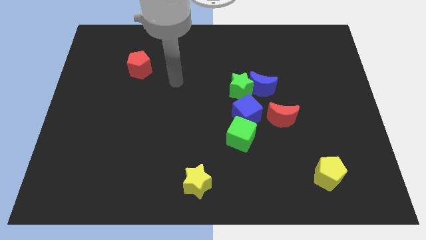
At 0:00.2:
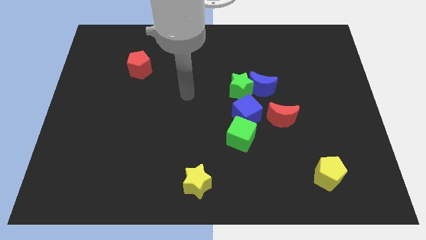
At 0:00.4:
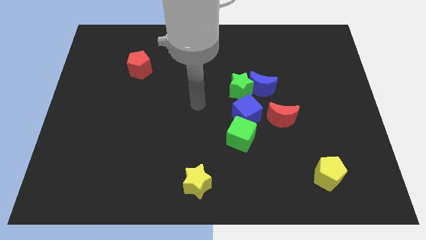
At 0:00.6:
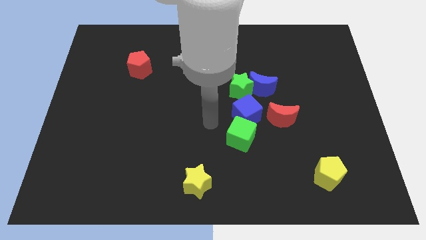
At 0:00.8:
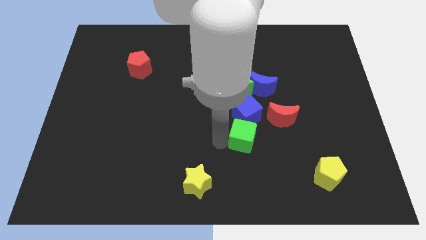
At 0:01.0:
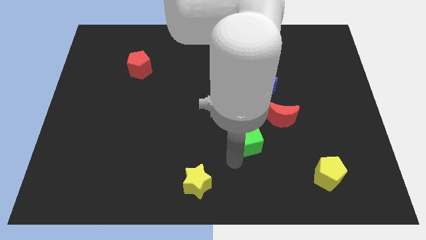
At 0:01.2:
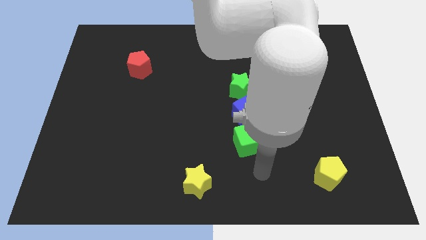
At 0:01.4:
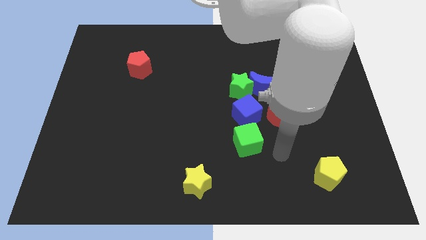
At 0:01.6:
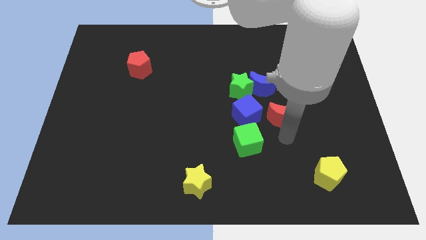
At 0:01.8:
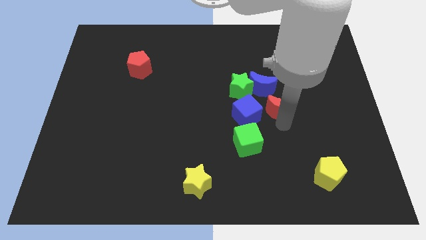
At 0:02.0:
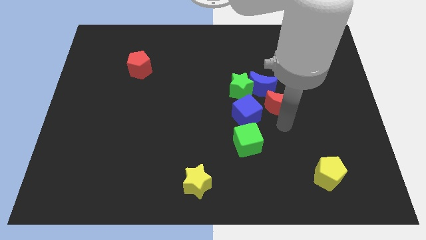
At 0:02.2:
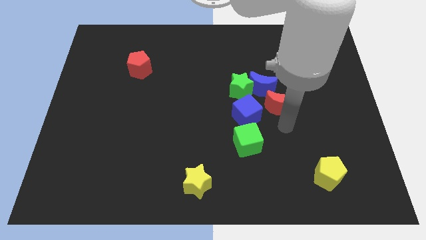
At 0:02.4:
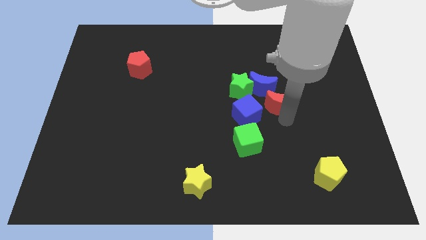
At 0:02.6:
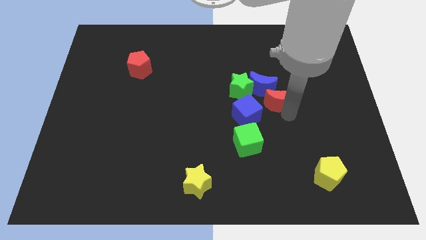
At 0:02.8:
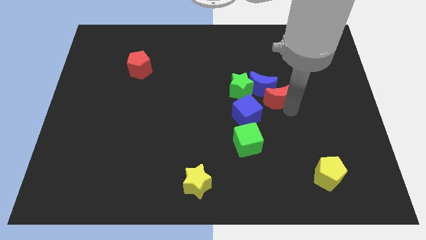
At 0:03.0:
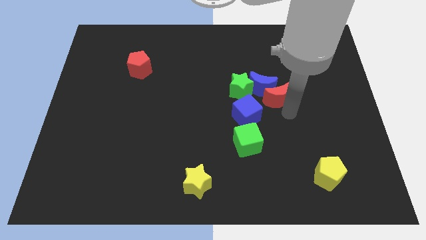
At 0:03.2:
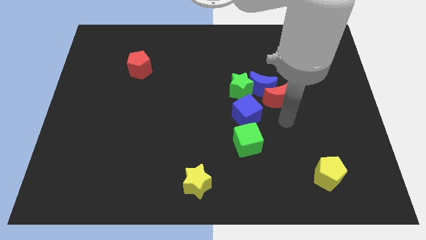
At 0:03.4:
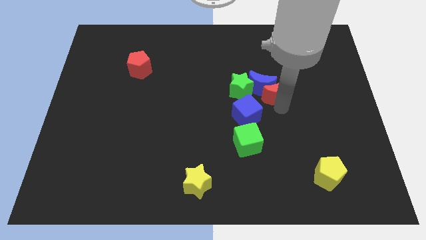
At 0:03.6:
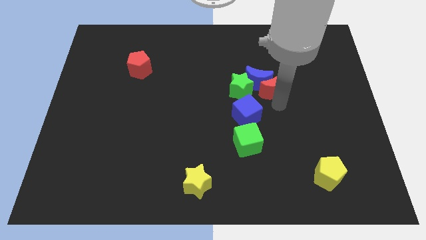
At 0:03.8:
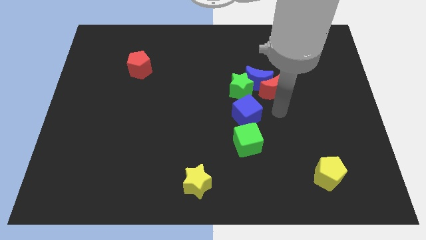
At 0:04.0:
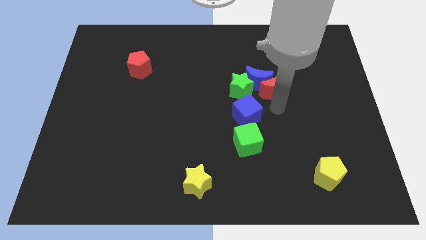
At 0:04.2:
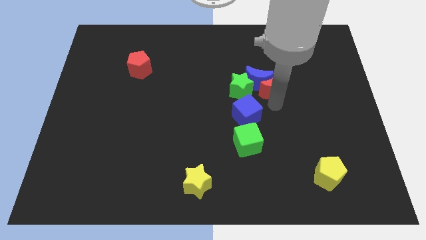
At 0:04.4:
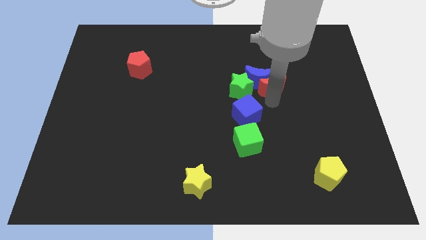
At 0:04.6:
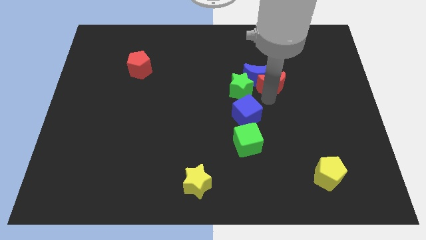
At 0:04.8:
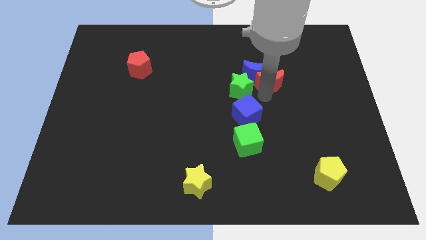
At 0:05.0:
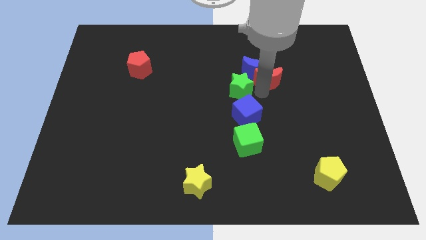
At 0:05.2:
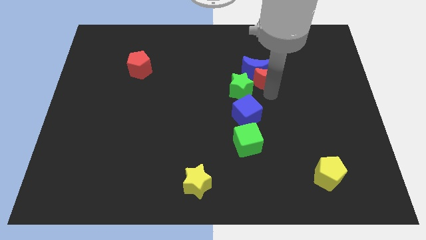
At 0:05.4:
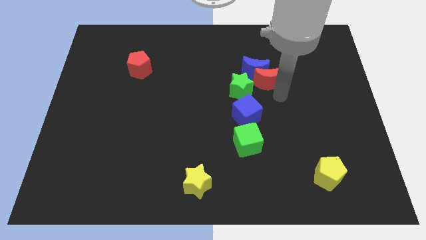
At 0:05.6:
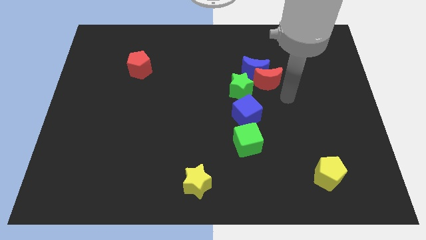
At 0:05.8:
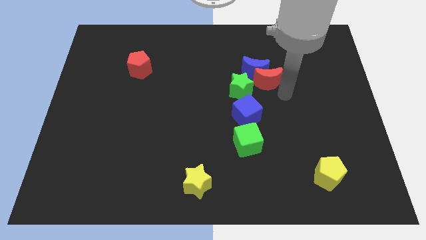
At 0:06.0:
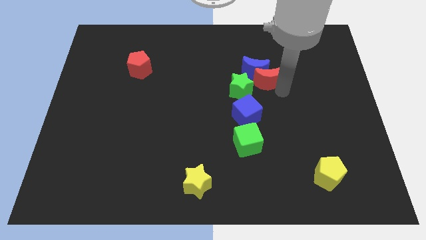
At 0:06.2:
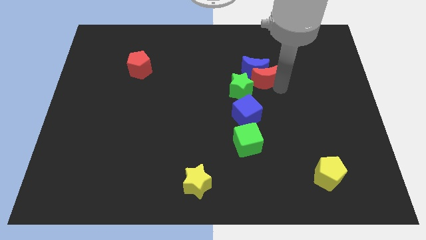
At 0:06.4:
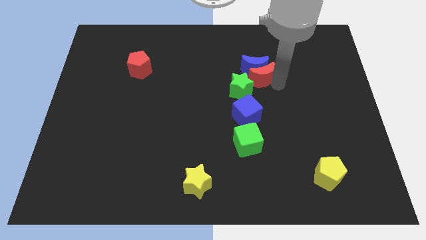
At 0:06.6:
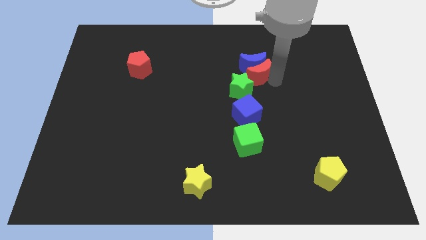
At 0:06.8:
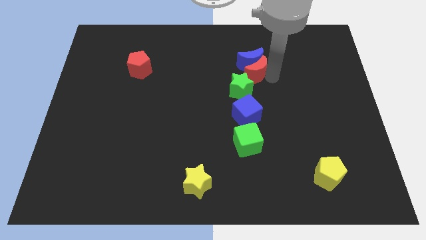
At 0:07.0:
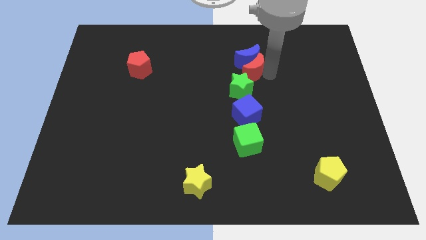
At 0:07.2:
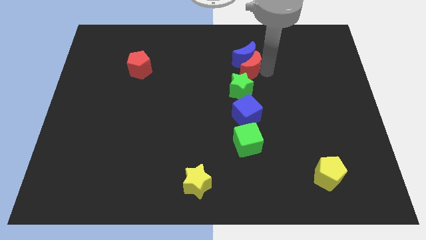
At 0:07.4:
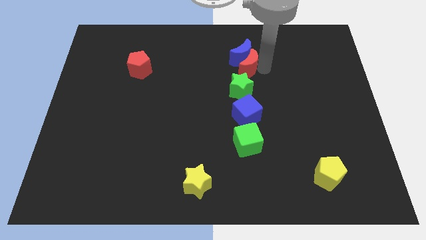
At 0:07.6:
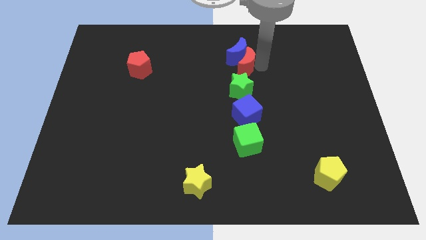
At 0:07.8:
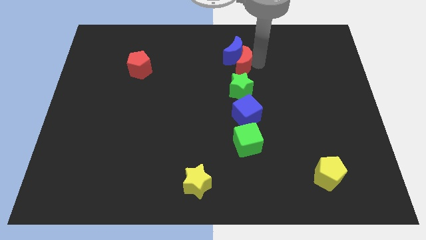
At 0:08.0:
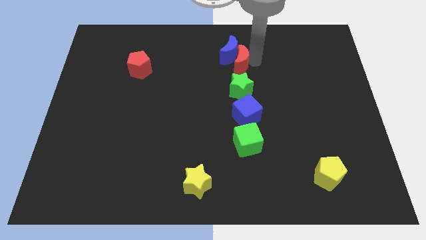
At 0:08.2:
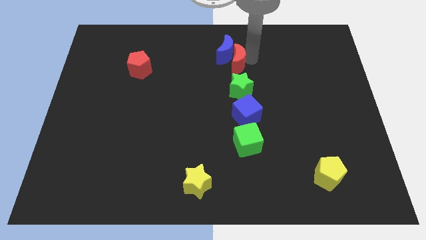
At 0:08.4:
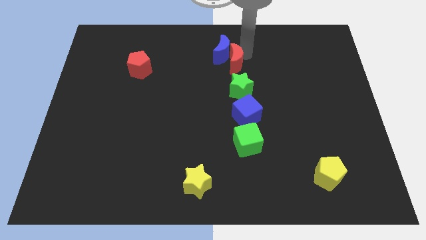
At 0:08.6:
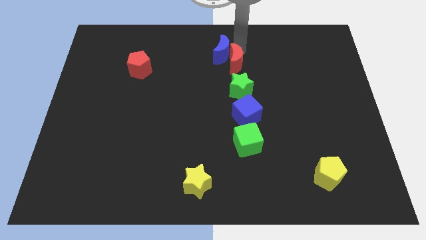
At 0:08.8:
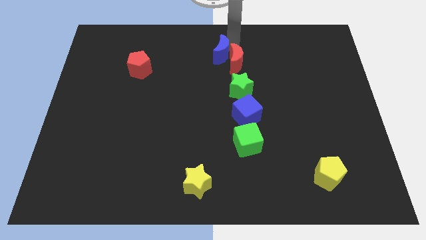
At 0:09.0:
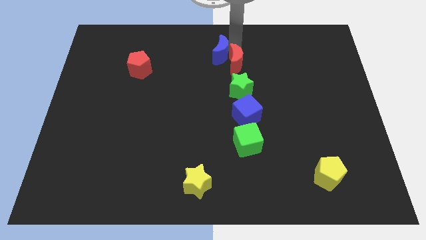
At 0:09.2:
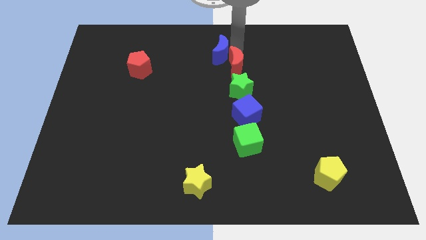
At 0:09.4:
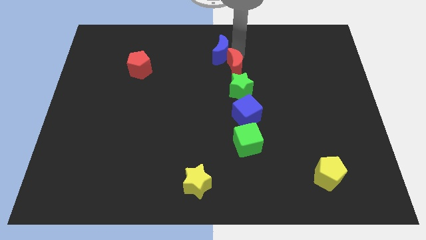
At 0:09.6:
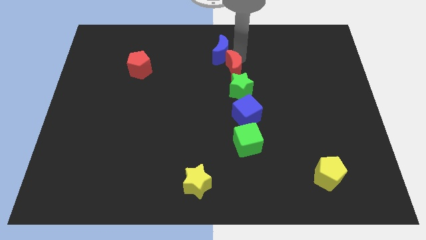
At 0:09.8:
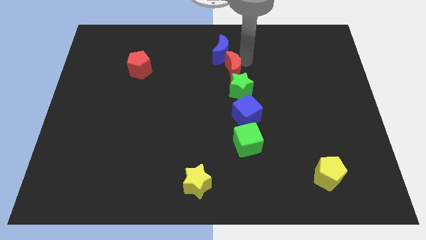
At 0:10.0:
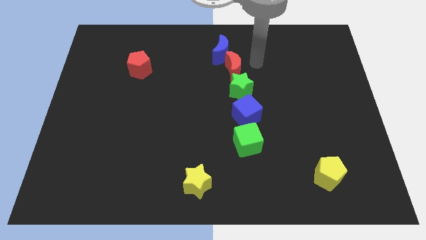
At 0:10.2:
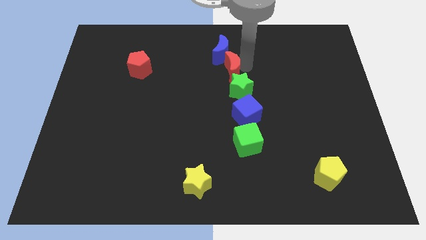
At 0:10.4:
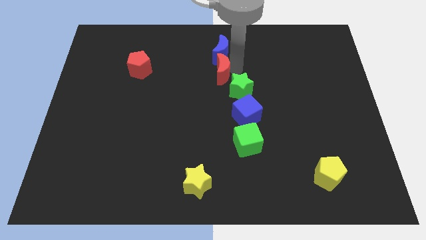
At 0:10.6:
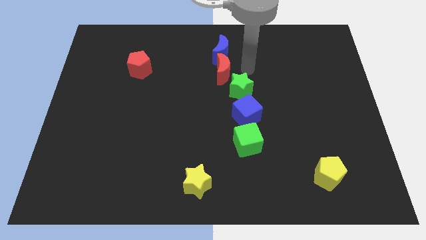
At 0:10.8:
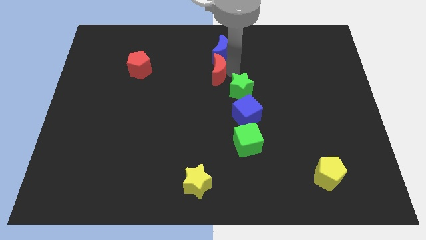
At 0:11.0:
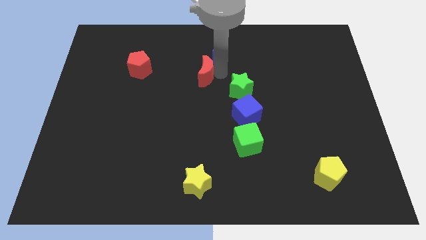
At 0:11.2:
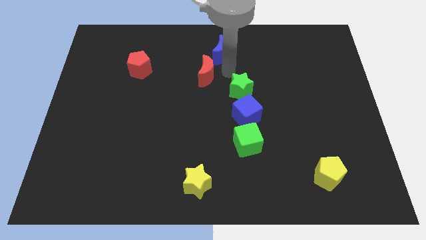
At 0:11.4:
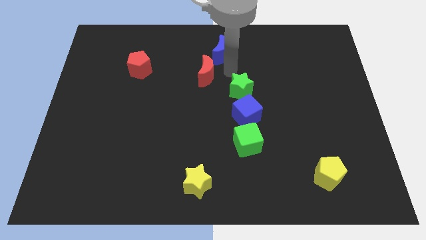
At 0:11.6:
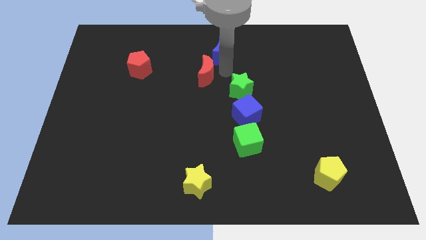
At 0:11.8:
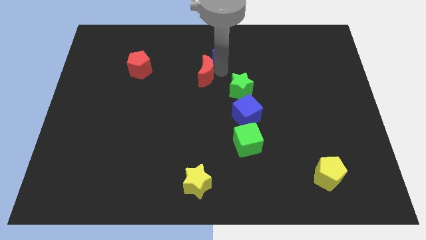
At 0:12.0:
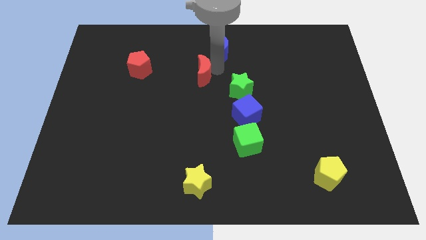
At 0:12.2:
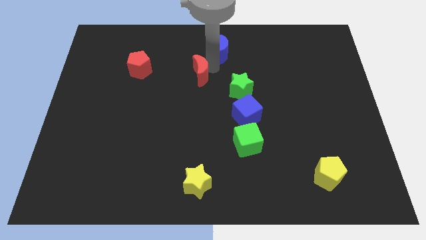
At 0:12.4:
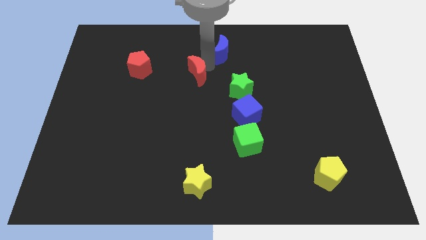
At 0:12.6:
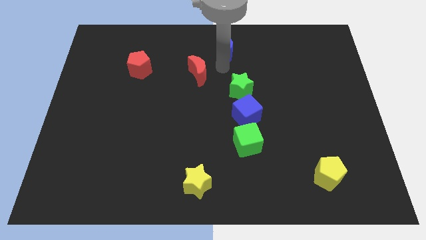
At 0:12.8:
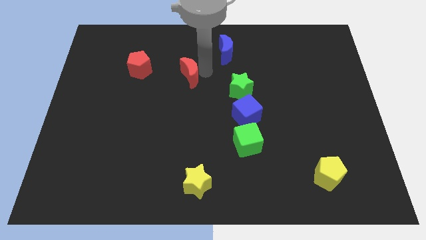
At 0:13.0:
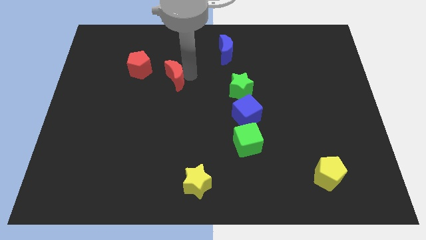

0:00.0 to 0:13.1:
put the red moon diagonally down and to the right of the red pentagon

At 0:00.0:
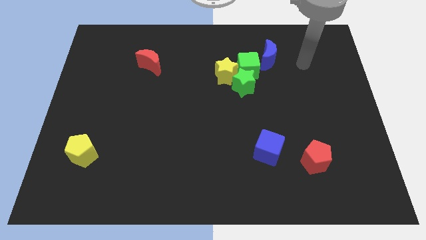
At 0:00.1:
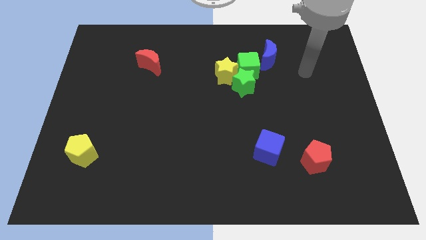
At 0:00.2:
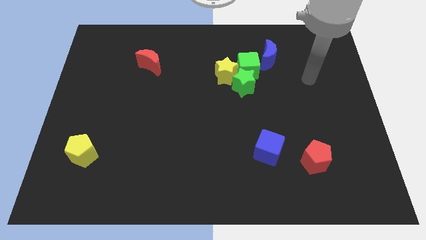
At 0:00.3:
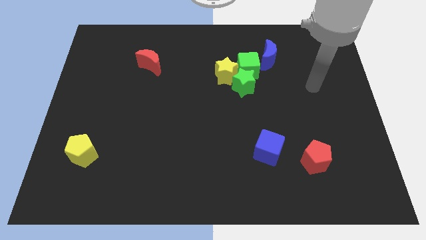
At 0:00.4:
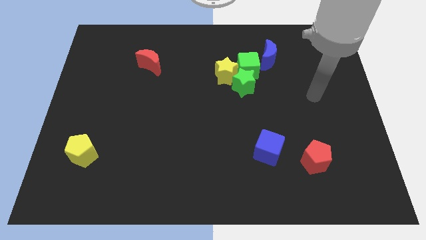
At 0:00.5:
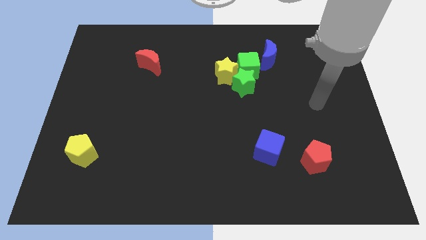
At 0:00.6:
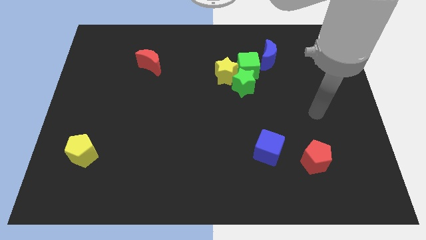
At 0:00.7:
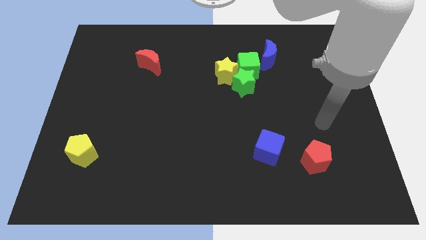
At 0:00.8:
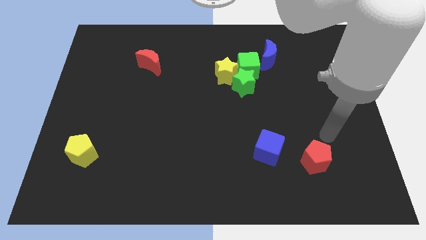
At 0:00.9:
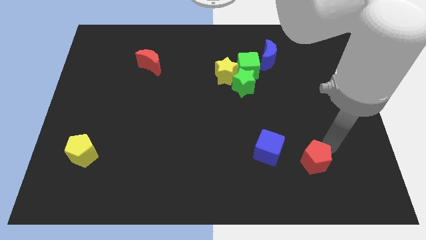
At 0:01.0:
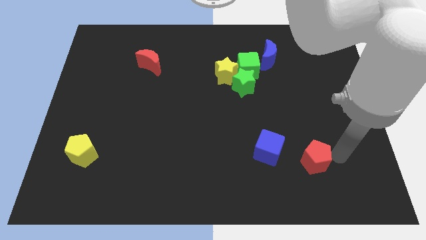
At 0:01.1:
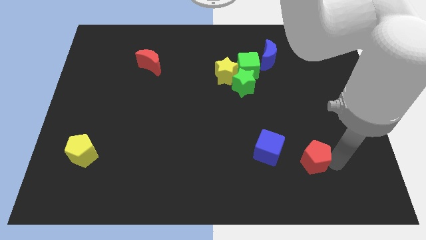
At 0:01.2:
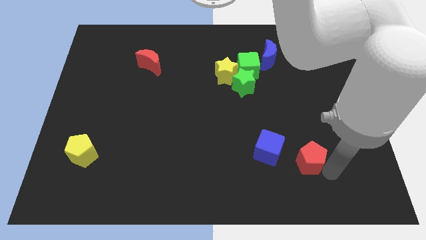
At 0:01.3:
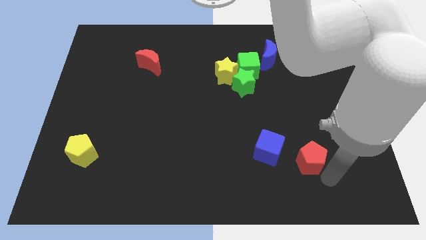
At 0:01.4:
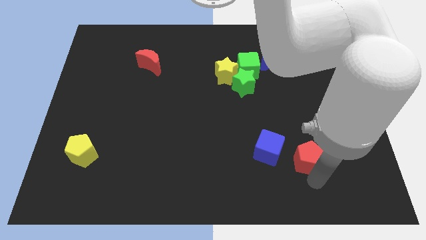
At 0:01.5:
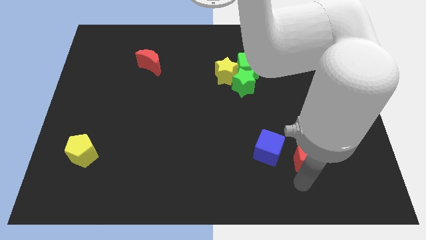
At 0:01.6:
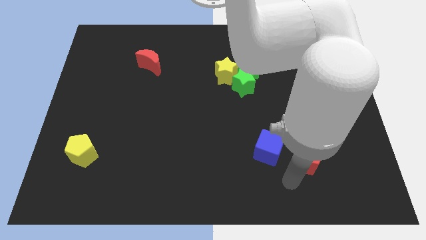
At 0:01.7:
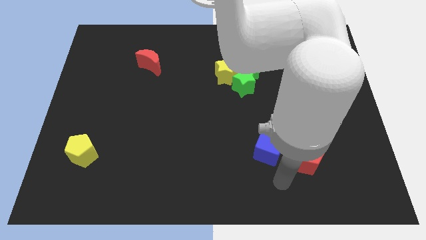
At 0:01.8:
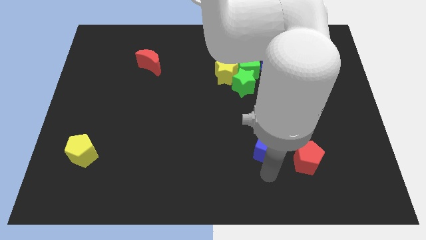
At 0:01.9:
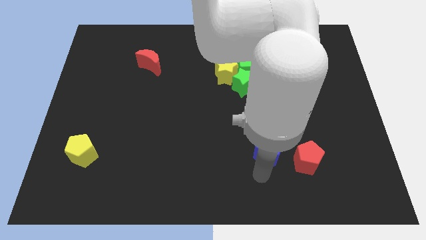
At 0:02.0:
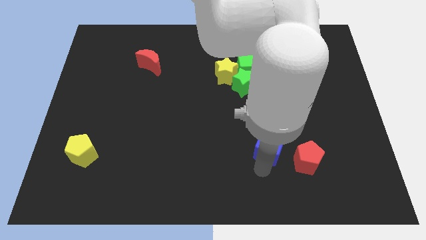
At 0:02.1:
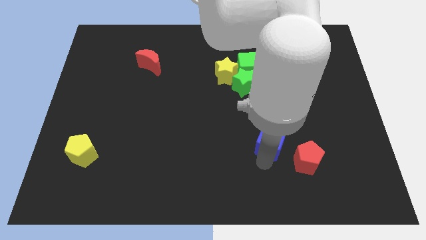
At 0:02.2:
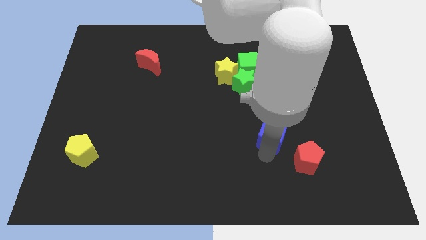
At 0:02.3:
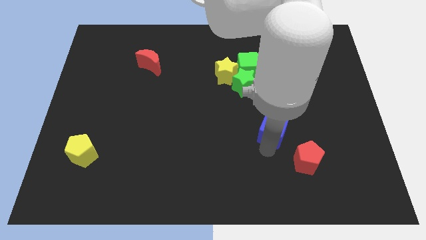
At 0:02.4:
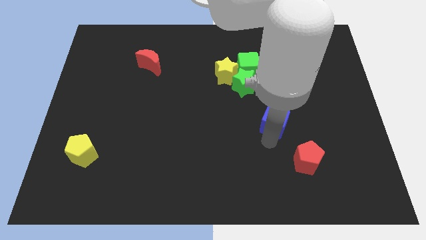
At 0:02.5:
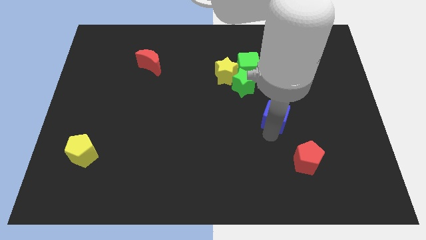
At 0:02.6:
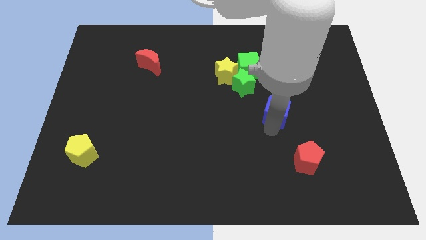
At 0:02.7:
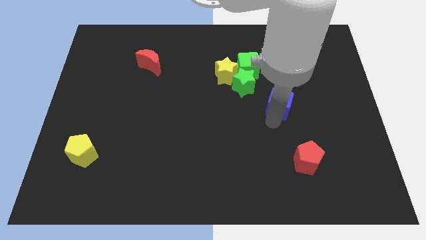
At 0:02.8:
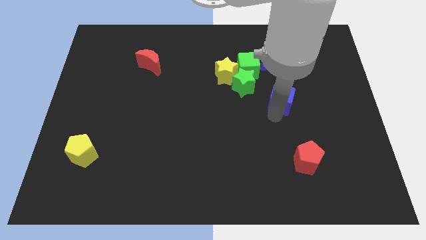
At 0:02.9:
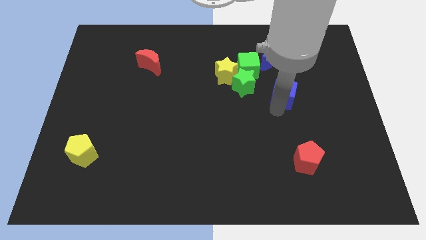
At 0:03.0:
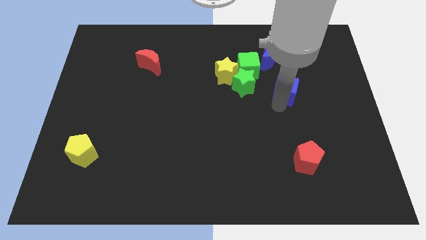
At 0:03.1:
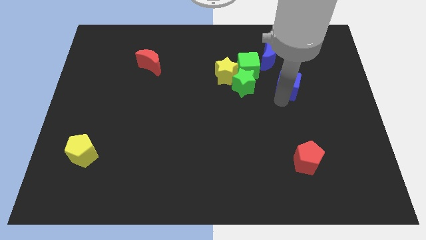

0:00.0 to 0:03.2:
put the blue cube to the bottom right side of the blue moon
